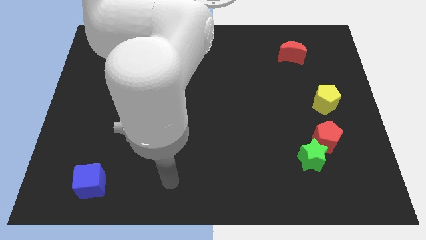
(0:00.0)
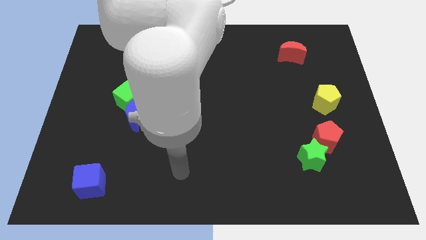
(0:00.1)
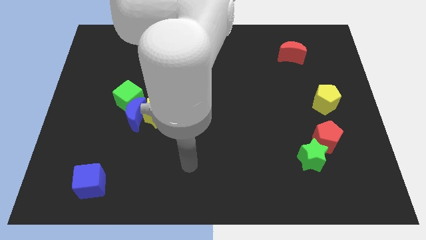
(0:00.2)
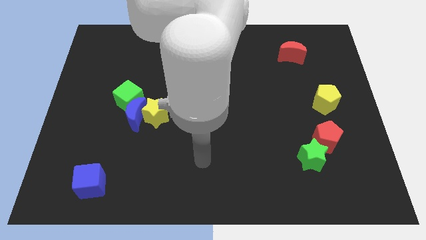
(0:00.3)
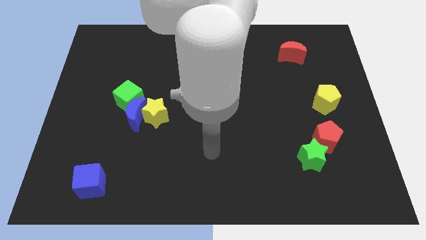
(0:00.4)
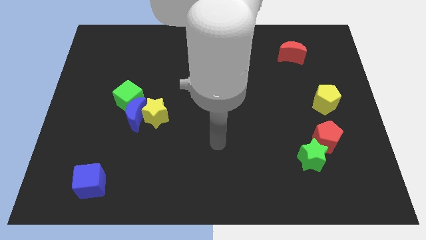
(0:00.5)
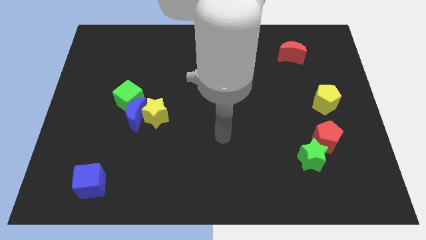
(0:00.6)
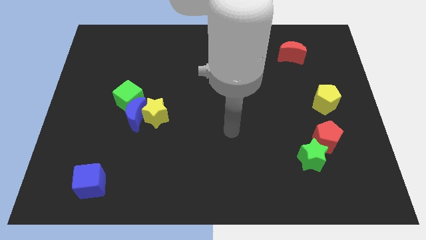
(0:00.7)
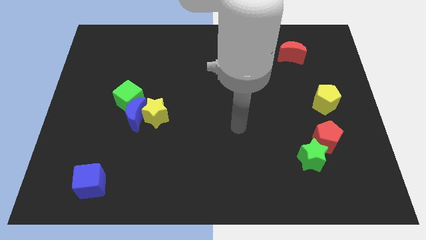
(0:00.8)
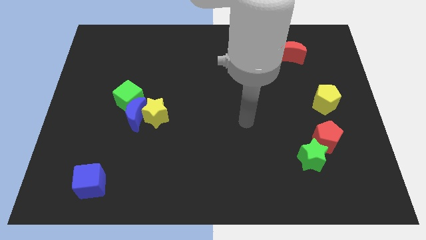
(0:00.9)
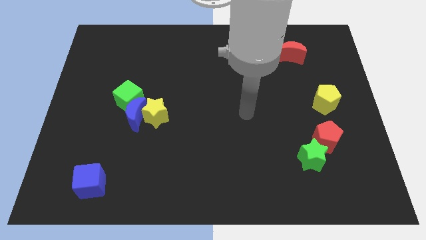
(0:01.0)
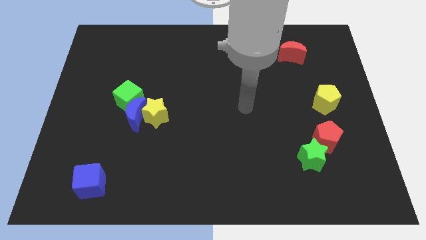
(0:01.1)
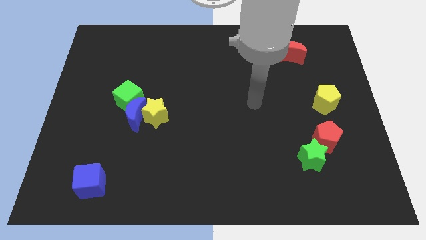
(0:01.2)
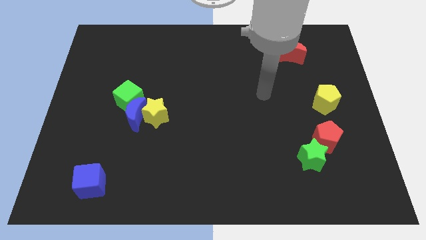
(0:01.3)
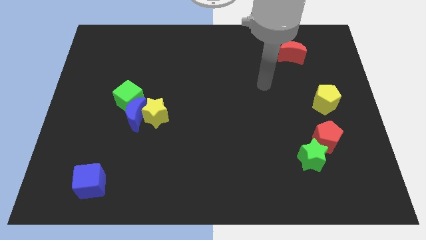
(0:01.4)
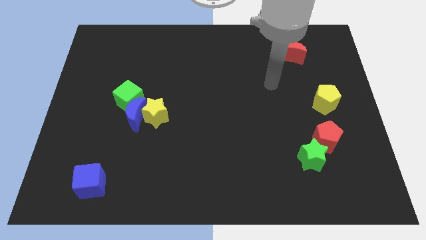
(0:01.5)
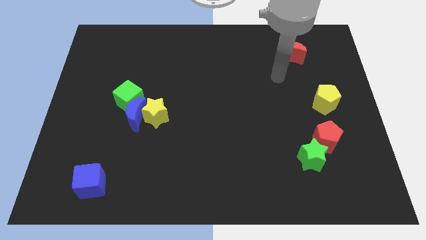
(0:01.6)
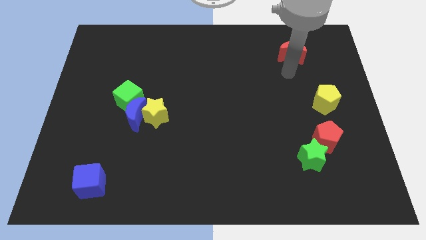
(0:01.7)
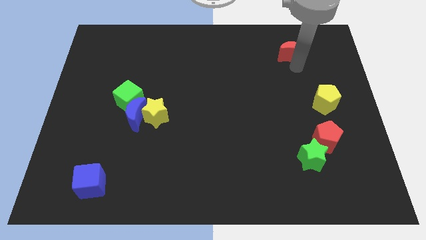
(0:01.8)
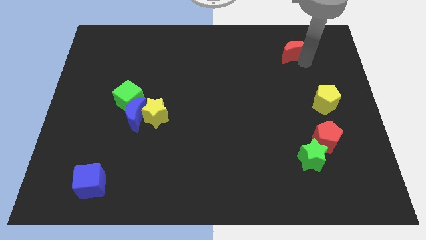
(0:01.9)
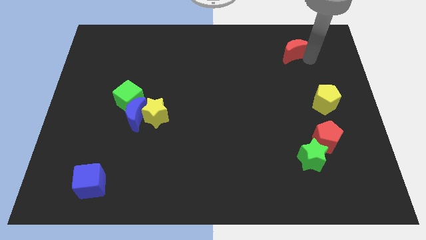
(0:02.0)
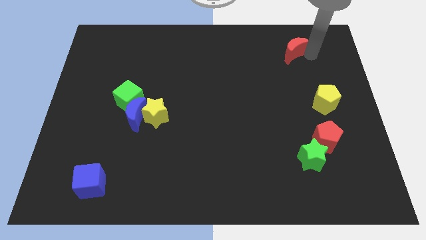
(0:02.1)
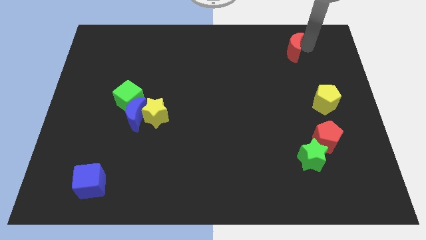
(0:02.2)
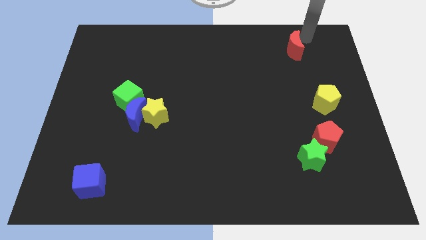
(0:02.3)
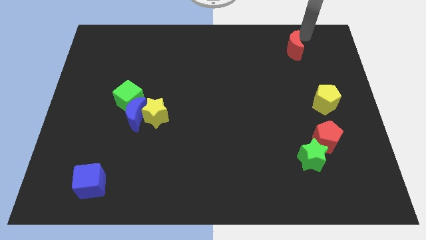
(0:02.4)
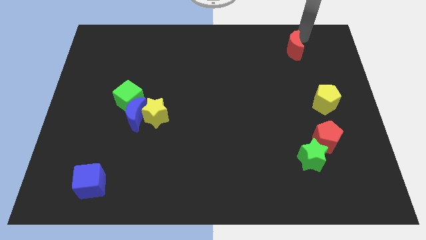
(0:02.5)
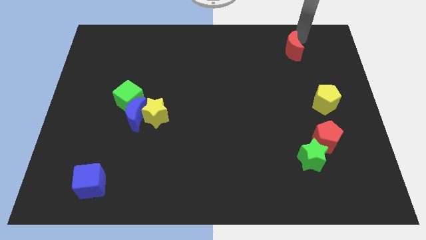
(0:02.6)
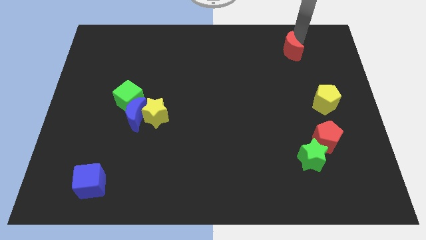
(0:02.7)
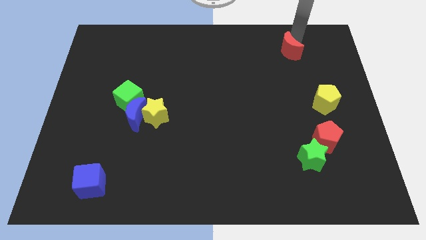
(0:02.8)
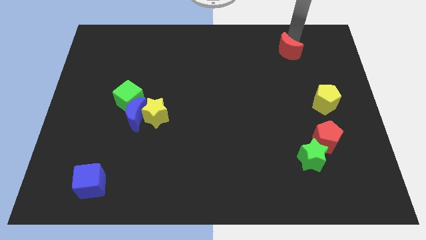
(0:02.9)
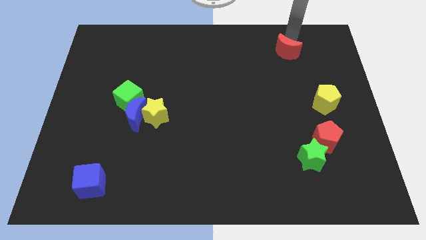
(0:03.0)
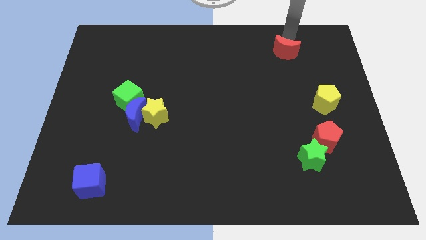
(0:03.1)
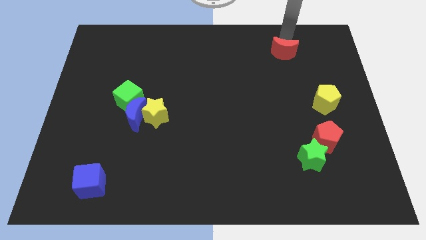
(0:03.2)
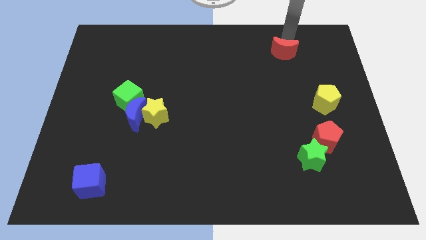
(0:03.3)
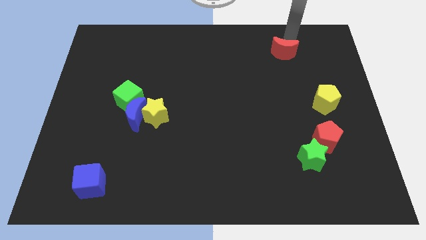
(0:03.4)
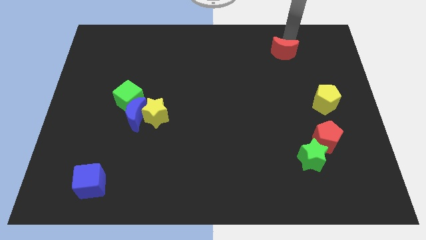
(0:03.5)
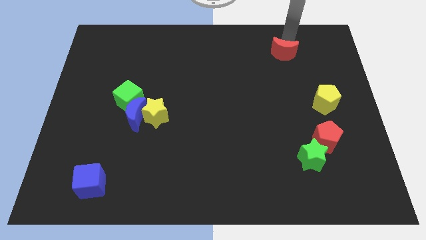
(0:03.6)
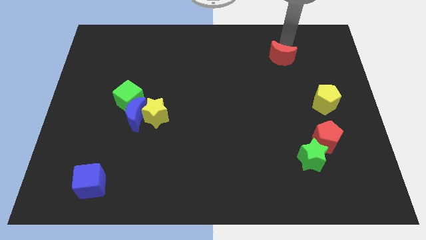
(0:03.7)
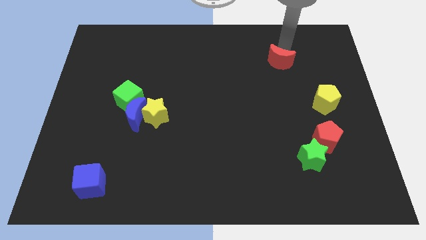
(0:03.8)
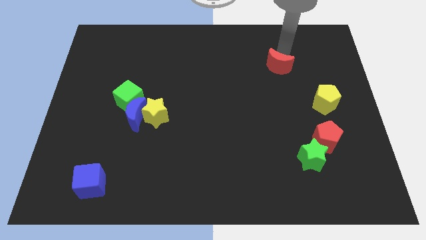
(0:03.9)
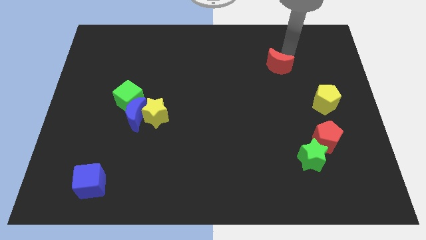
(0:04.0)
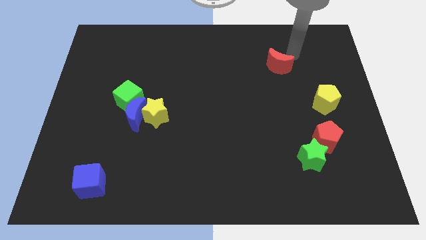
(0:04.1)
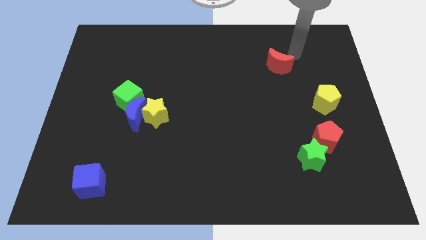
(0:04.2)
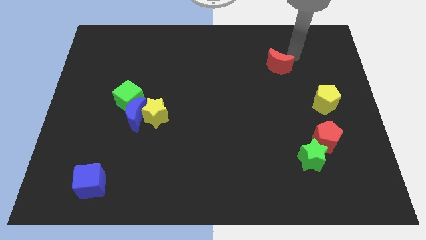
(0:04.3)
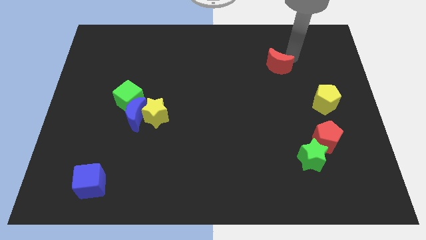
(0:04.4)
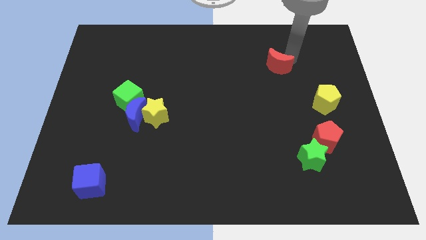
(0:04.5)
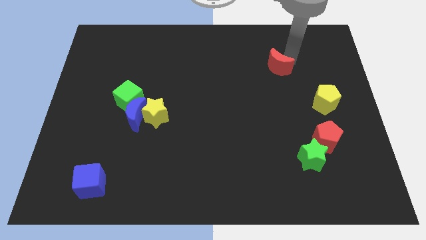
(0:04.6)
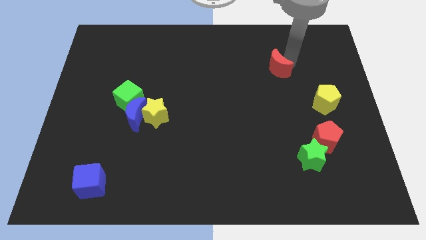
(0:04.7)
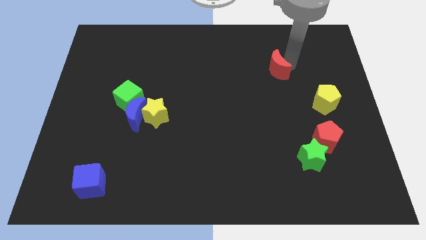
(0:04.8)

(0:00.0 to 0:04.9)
slightly push the red moon diagonally downwards and left

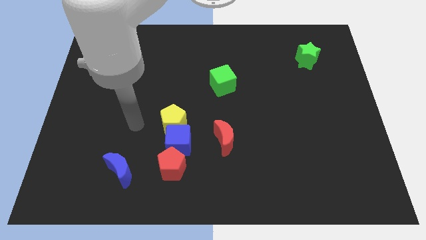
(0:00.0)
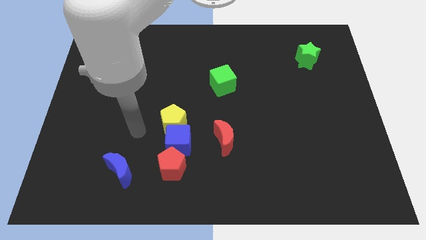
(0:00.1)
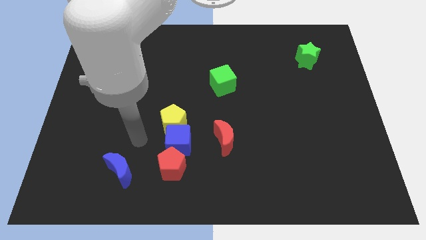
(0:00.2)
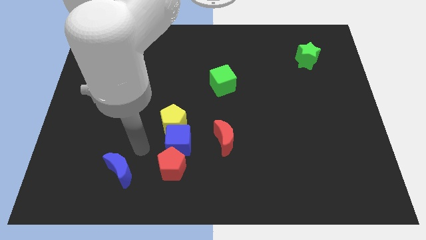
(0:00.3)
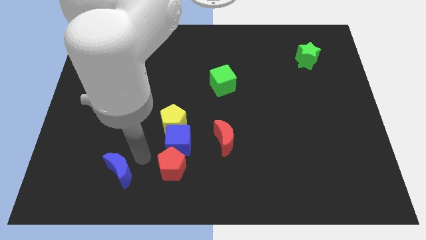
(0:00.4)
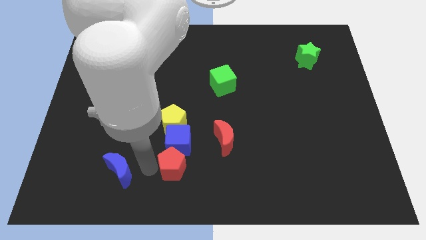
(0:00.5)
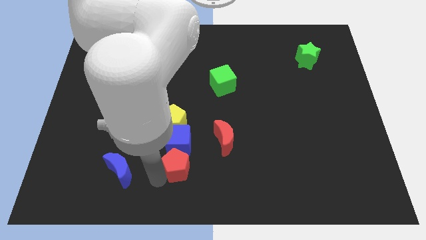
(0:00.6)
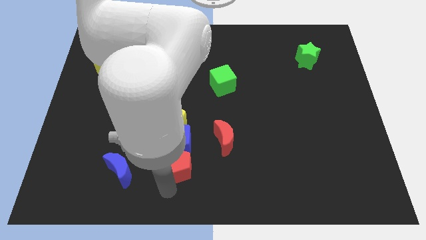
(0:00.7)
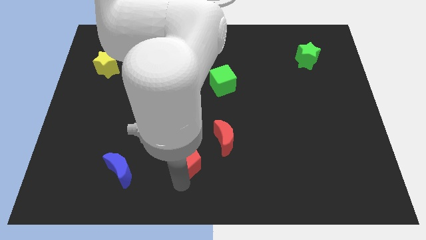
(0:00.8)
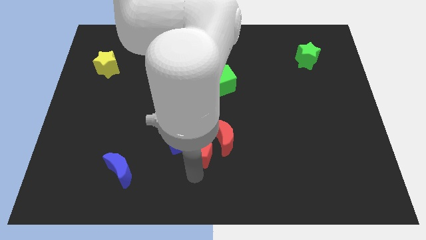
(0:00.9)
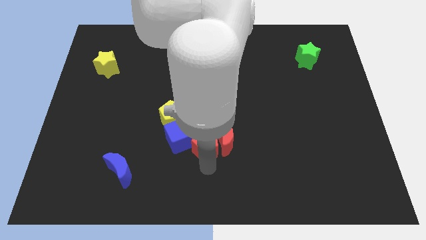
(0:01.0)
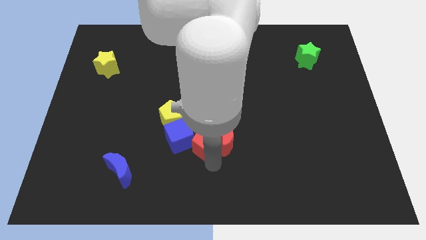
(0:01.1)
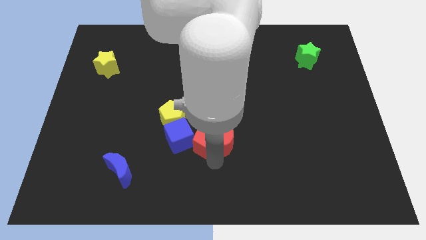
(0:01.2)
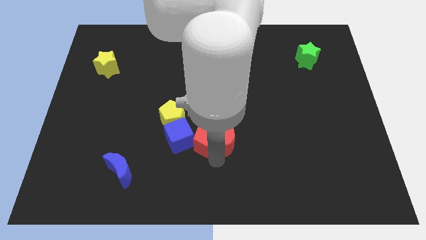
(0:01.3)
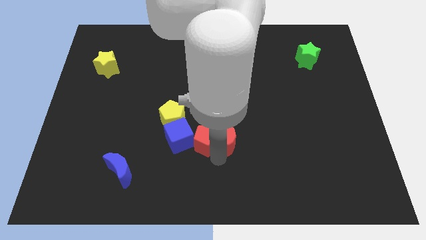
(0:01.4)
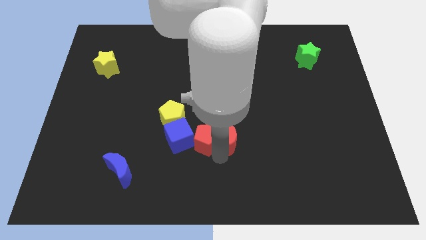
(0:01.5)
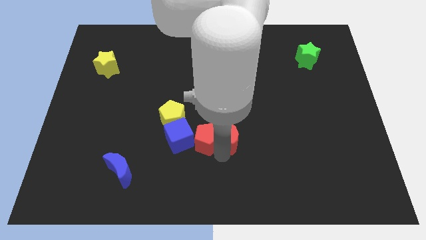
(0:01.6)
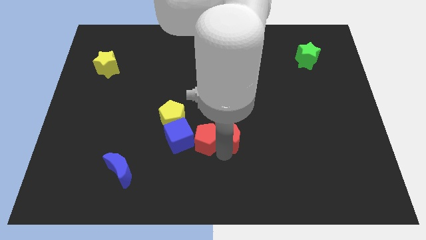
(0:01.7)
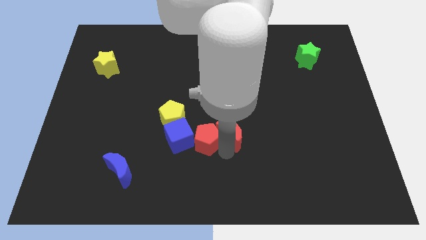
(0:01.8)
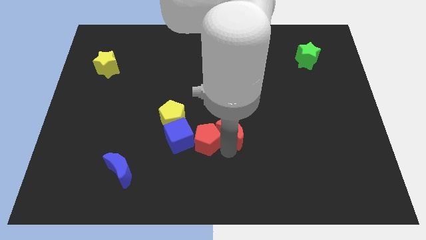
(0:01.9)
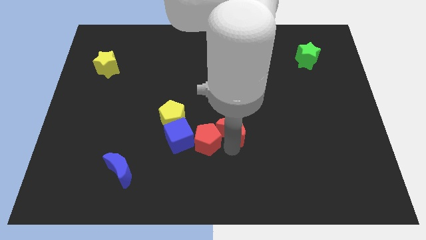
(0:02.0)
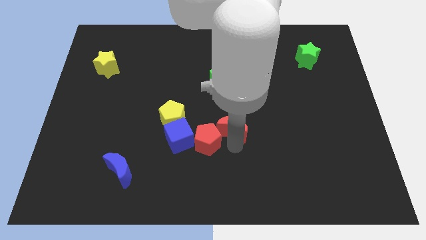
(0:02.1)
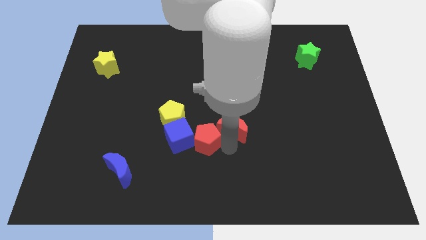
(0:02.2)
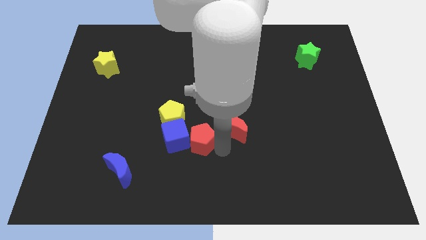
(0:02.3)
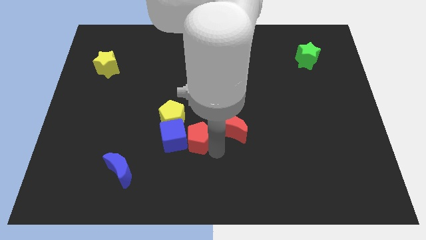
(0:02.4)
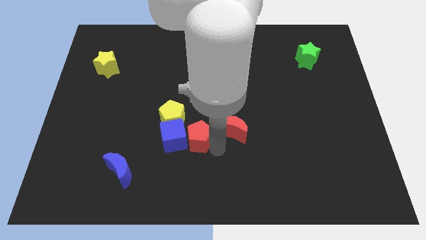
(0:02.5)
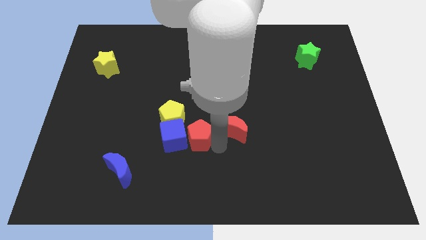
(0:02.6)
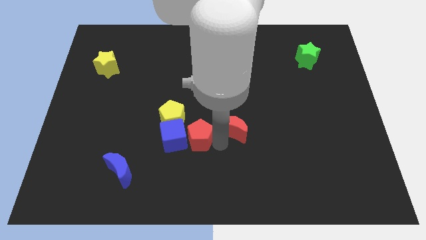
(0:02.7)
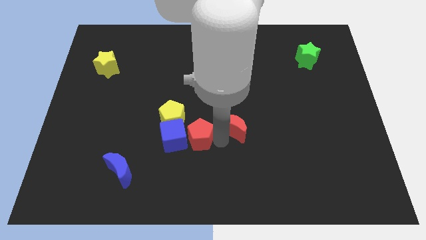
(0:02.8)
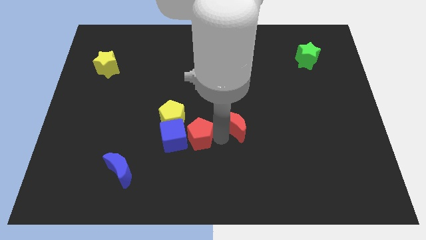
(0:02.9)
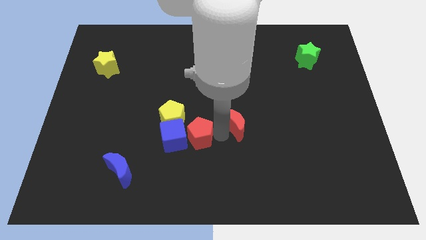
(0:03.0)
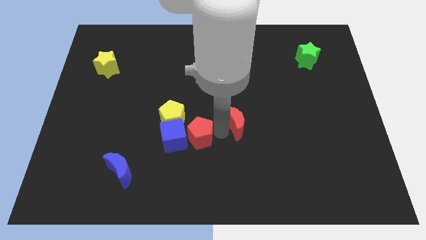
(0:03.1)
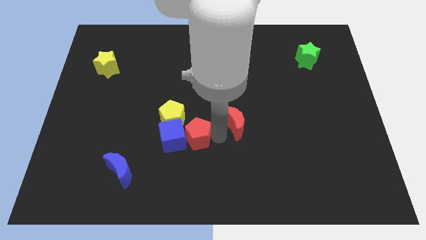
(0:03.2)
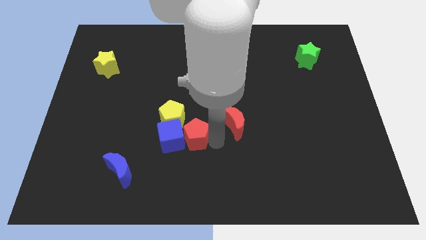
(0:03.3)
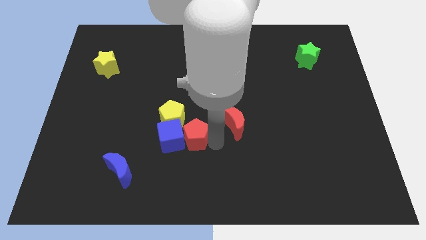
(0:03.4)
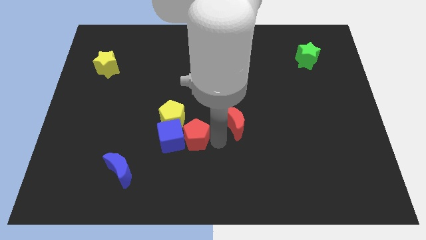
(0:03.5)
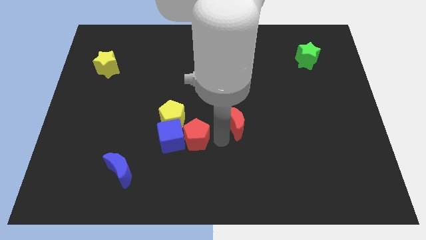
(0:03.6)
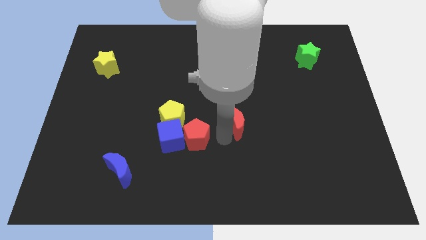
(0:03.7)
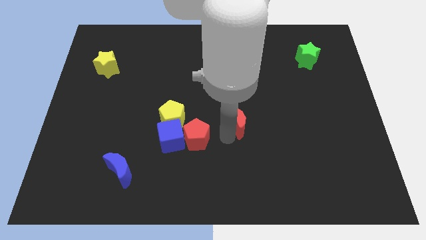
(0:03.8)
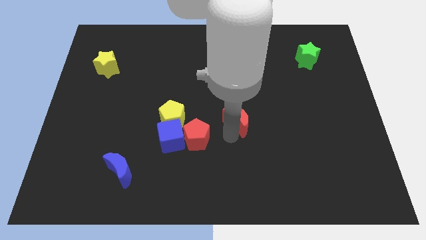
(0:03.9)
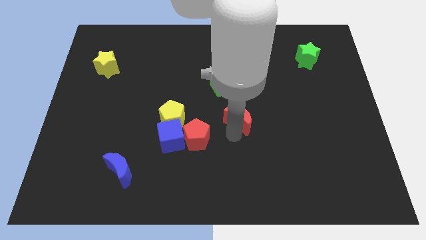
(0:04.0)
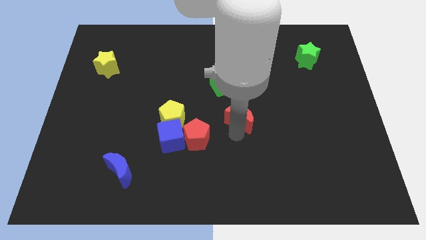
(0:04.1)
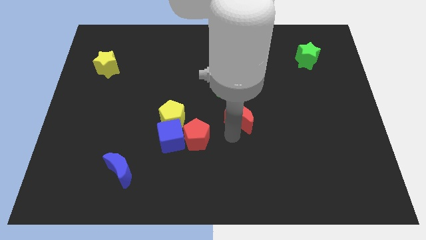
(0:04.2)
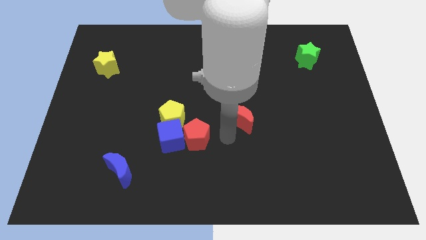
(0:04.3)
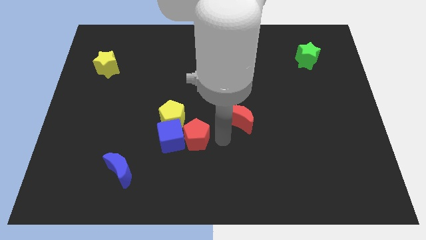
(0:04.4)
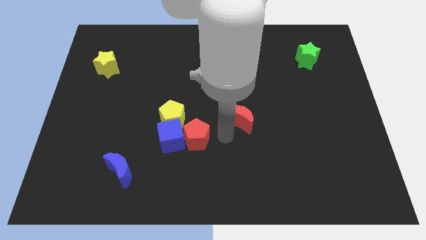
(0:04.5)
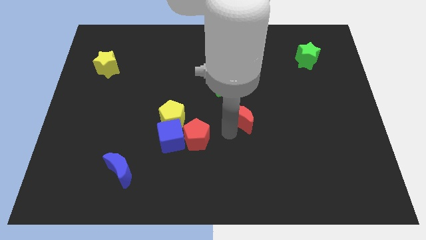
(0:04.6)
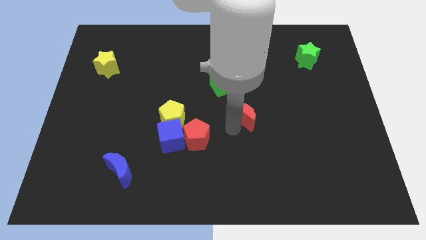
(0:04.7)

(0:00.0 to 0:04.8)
slide the red moon up and then to the right somewhat
